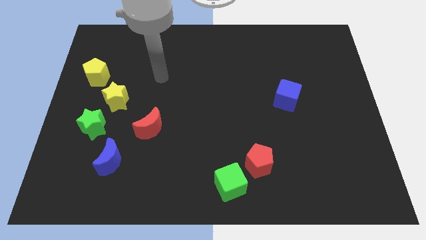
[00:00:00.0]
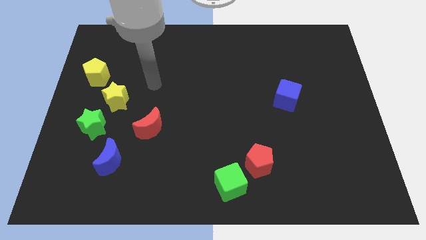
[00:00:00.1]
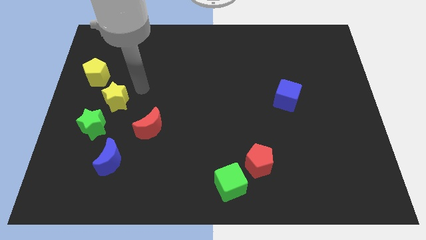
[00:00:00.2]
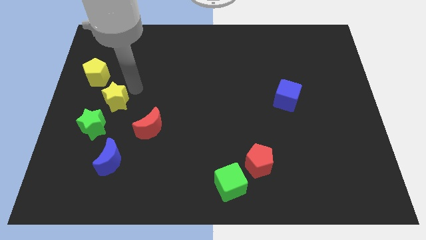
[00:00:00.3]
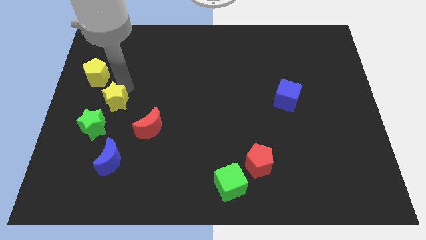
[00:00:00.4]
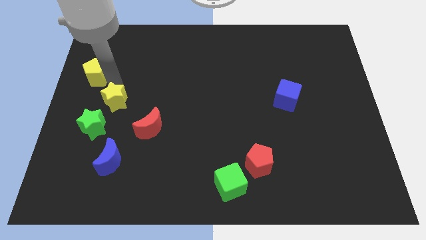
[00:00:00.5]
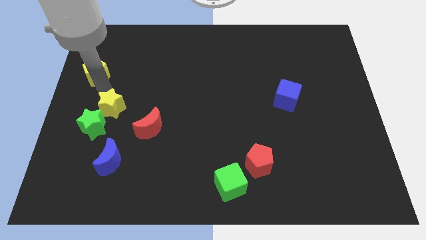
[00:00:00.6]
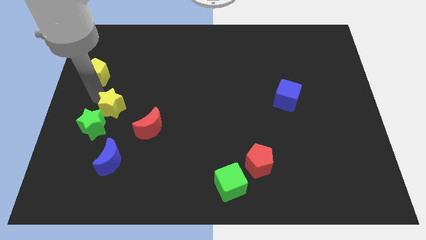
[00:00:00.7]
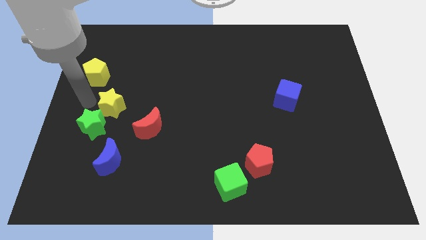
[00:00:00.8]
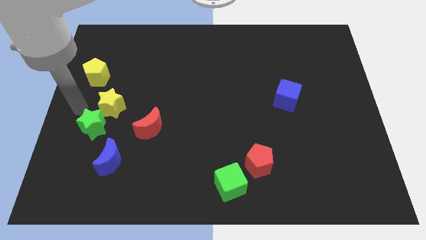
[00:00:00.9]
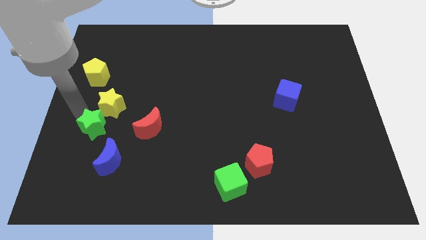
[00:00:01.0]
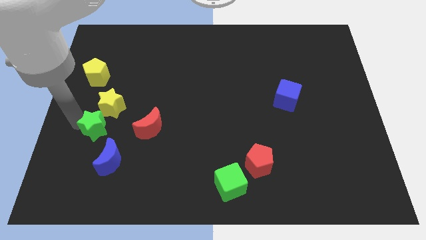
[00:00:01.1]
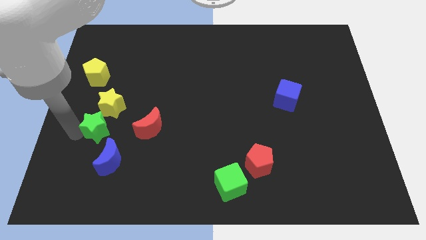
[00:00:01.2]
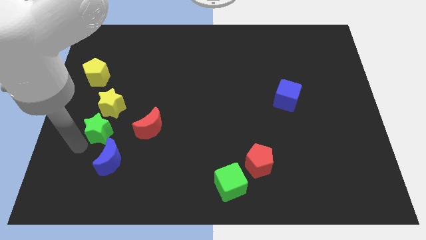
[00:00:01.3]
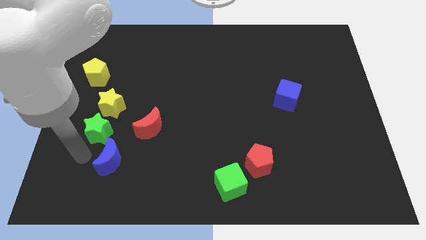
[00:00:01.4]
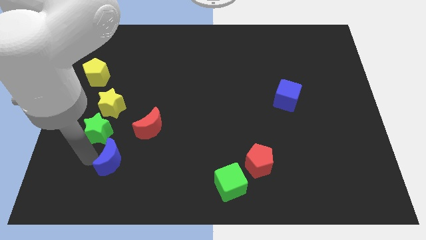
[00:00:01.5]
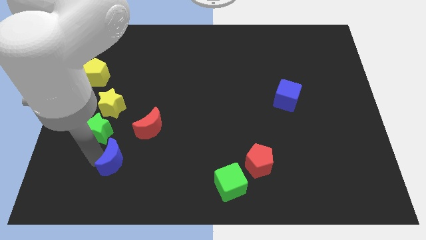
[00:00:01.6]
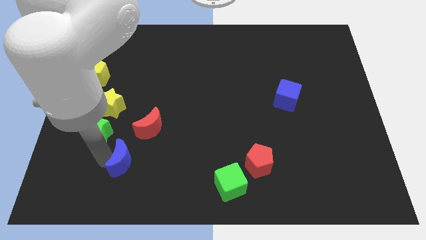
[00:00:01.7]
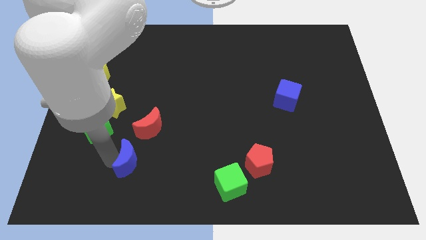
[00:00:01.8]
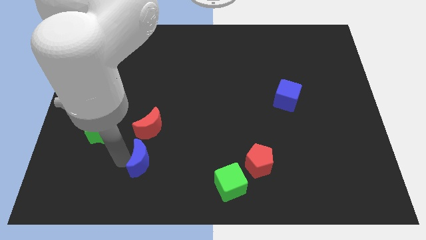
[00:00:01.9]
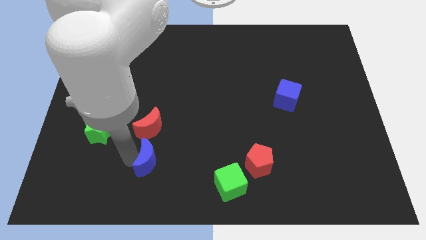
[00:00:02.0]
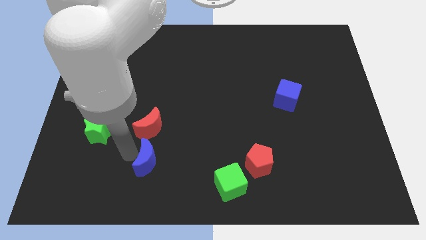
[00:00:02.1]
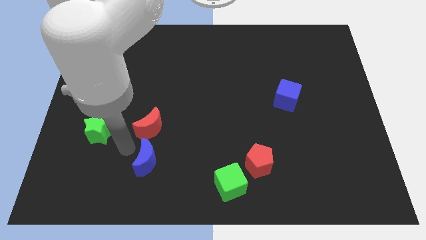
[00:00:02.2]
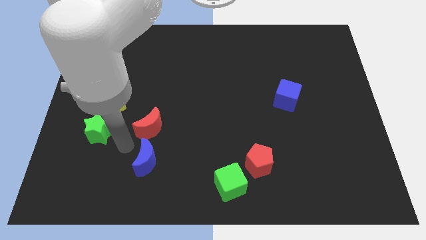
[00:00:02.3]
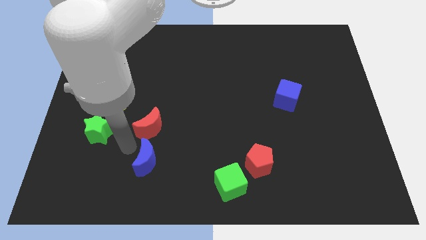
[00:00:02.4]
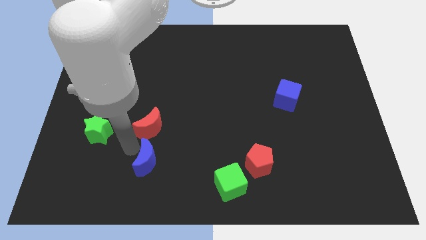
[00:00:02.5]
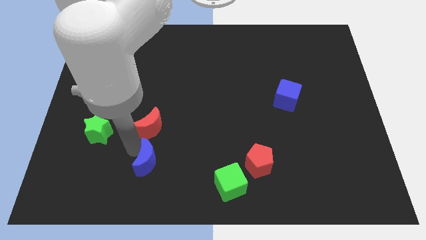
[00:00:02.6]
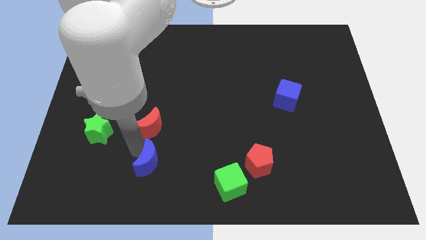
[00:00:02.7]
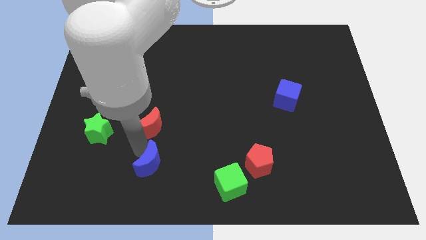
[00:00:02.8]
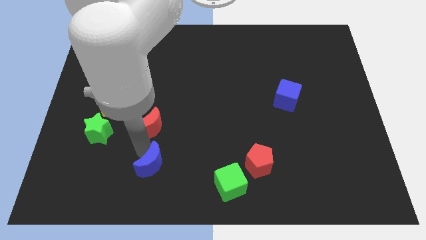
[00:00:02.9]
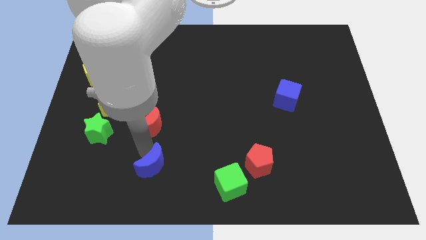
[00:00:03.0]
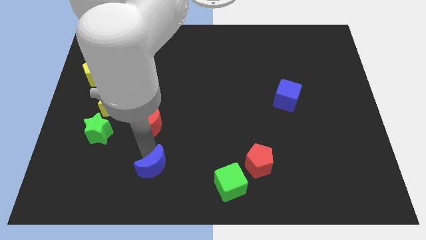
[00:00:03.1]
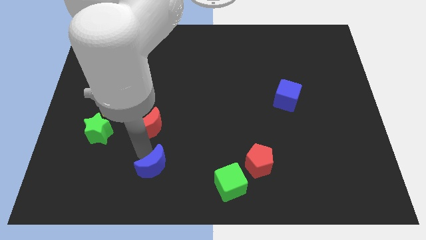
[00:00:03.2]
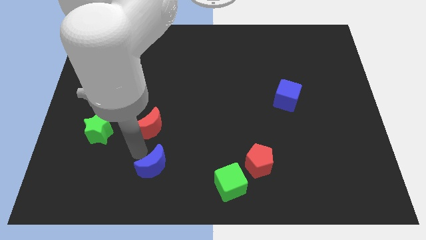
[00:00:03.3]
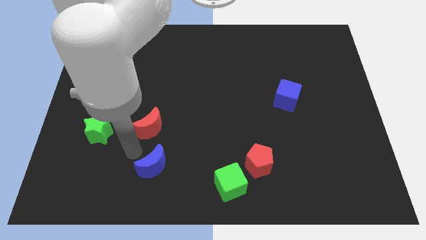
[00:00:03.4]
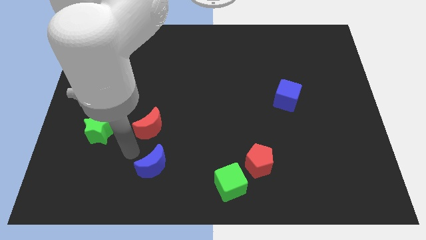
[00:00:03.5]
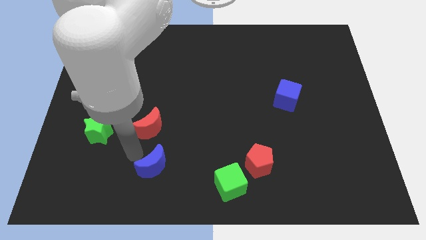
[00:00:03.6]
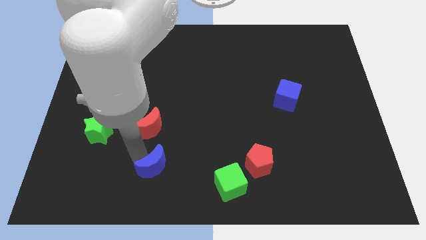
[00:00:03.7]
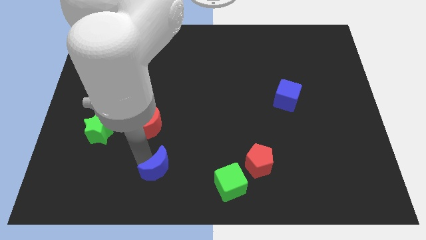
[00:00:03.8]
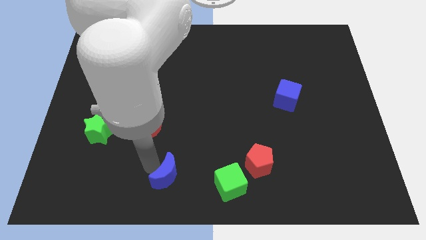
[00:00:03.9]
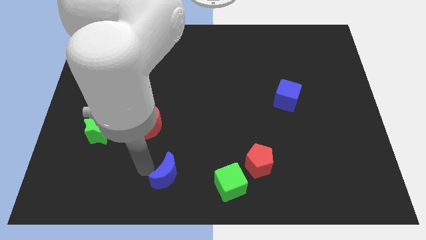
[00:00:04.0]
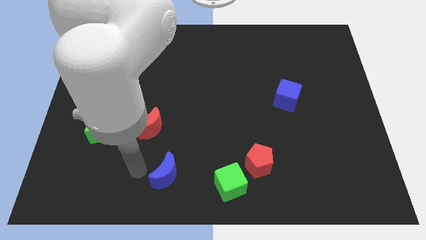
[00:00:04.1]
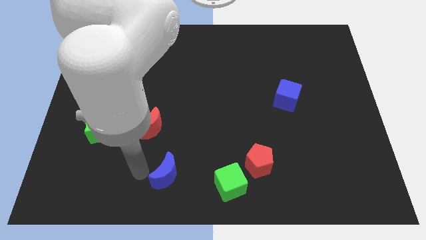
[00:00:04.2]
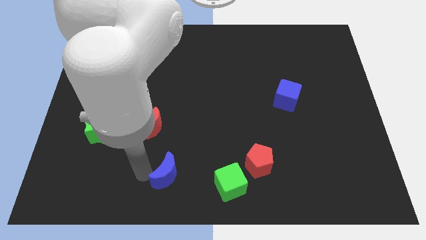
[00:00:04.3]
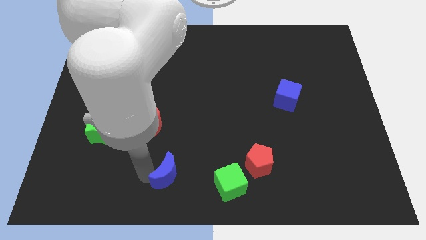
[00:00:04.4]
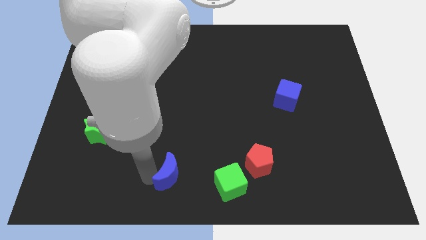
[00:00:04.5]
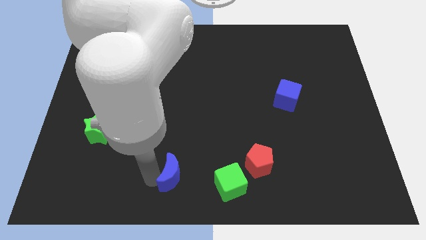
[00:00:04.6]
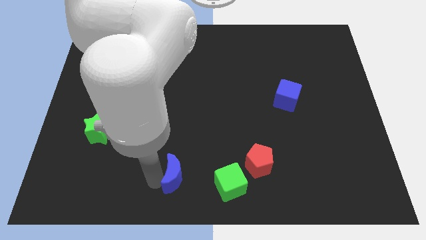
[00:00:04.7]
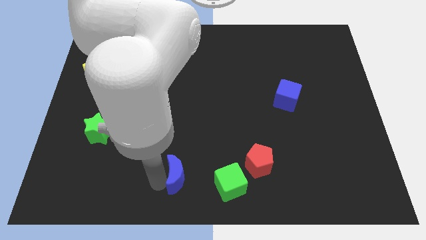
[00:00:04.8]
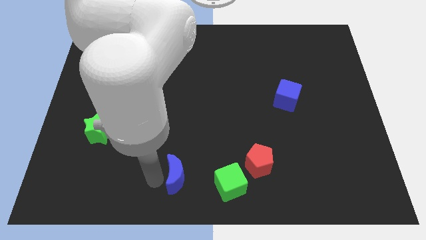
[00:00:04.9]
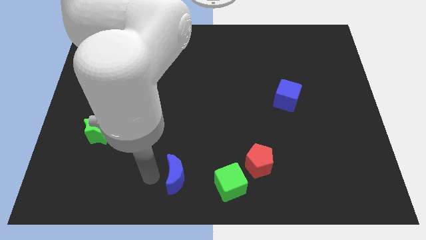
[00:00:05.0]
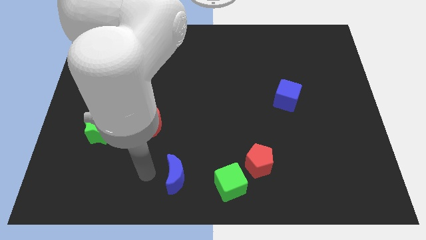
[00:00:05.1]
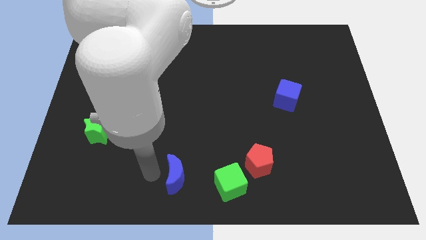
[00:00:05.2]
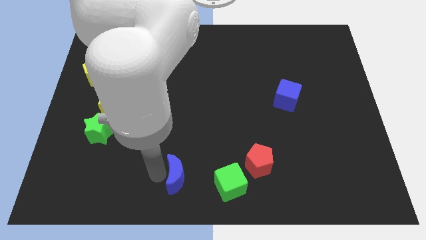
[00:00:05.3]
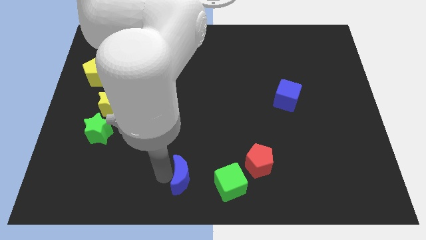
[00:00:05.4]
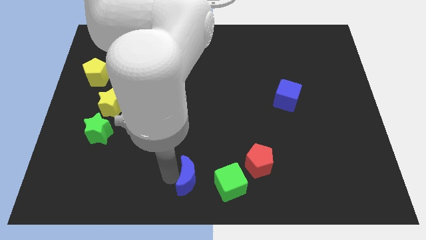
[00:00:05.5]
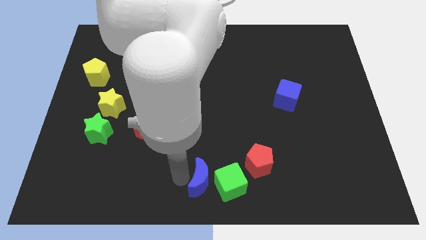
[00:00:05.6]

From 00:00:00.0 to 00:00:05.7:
slide the blue moon towards the green cube

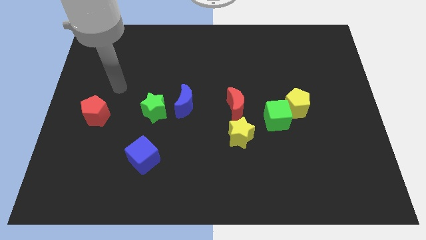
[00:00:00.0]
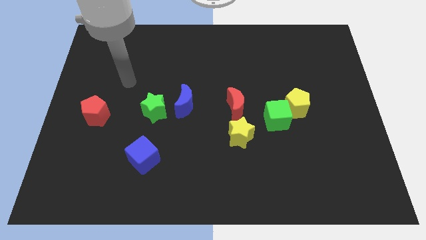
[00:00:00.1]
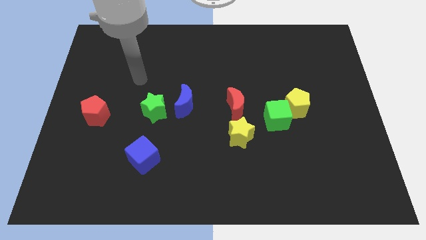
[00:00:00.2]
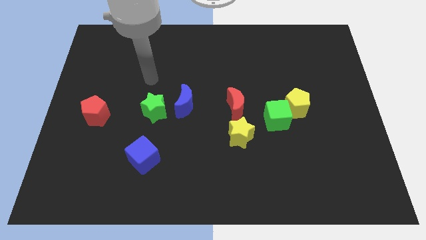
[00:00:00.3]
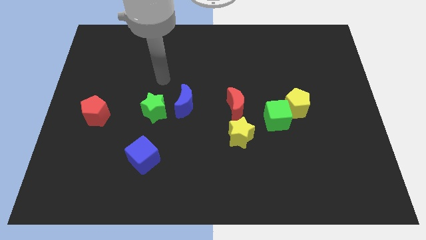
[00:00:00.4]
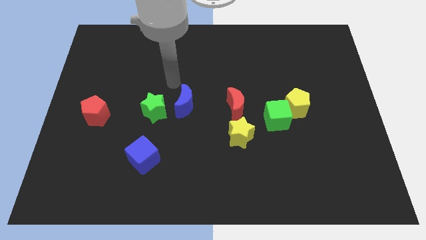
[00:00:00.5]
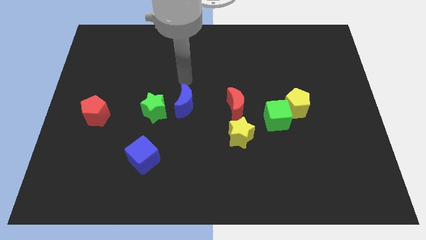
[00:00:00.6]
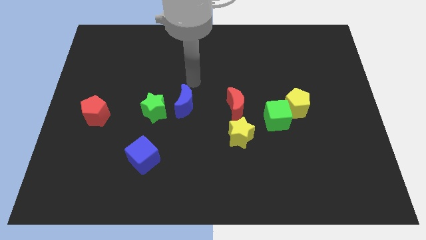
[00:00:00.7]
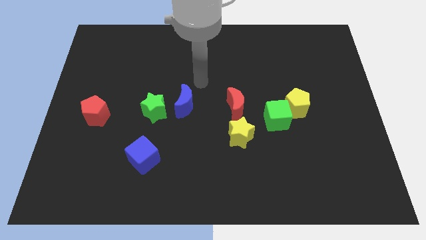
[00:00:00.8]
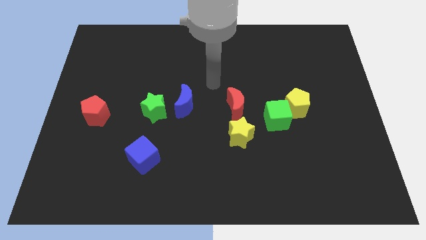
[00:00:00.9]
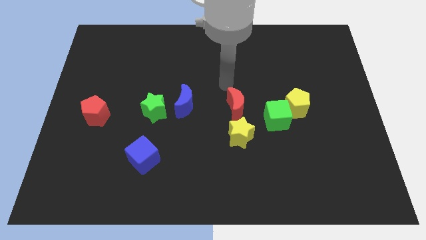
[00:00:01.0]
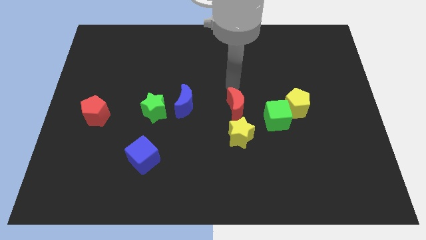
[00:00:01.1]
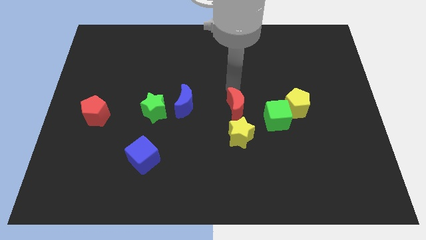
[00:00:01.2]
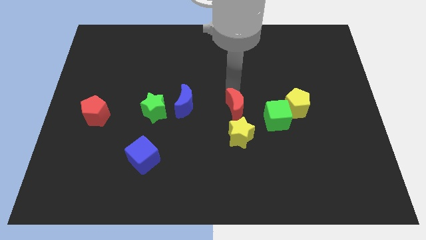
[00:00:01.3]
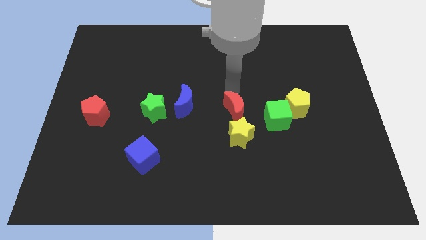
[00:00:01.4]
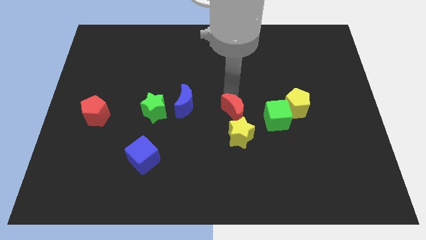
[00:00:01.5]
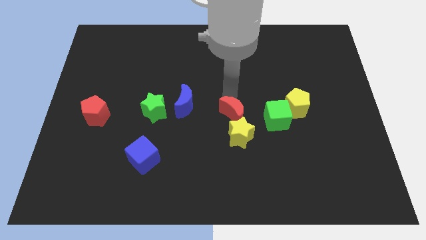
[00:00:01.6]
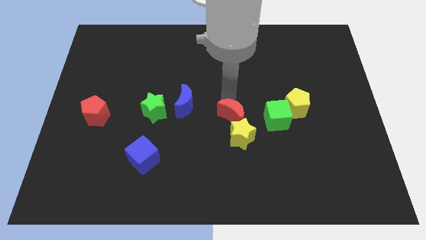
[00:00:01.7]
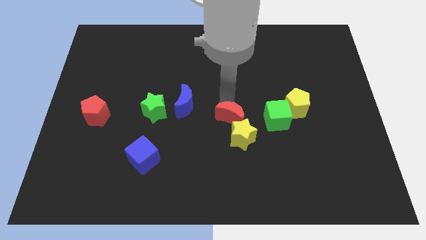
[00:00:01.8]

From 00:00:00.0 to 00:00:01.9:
move the red moon next to the yellow star
